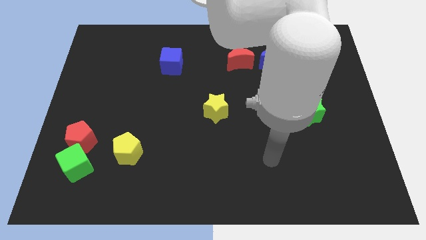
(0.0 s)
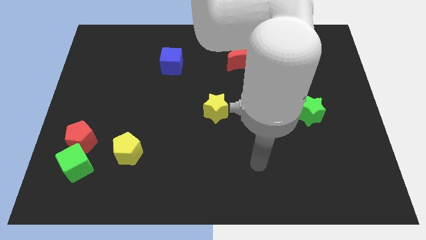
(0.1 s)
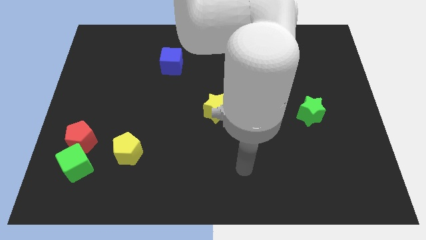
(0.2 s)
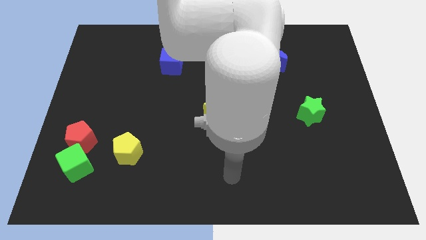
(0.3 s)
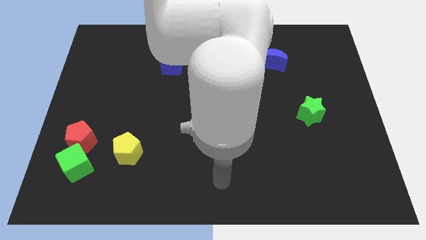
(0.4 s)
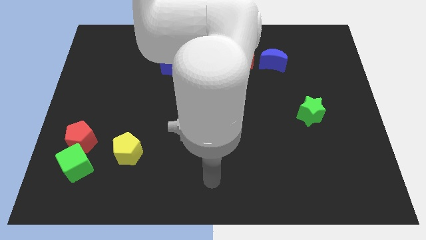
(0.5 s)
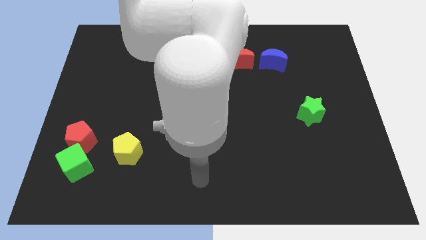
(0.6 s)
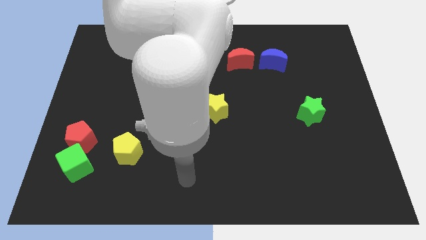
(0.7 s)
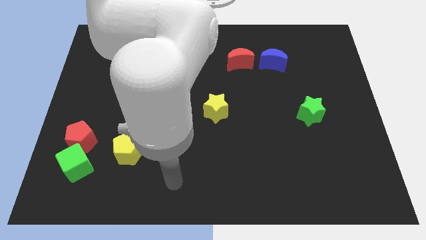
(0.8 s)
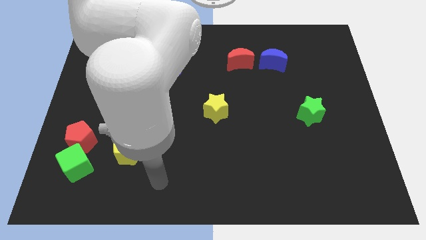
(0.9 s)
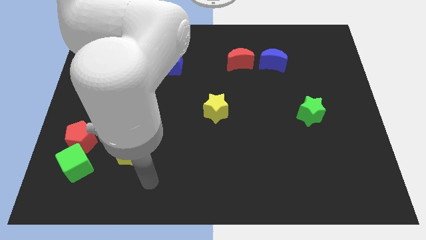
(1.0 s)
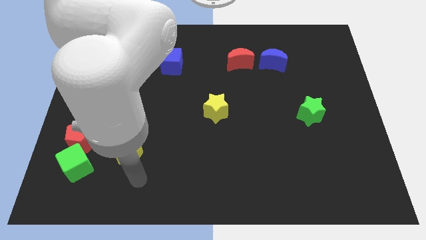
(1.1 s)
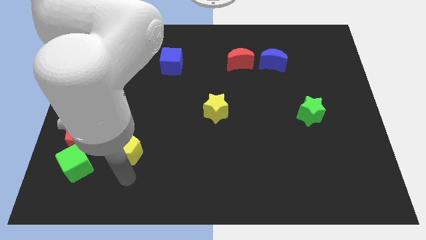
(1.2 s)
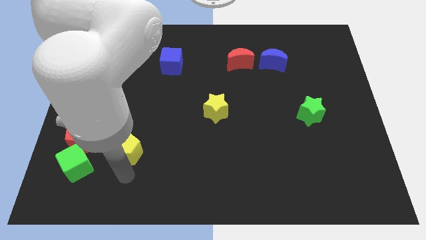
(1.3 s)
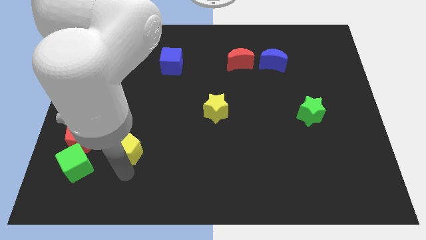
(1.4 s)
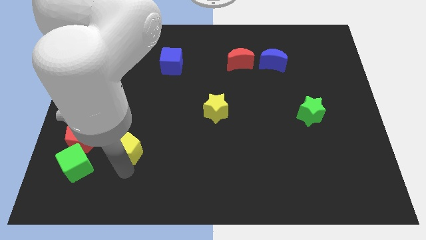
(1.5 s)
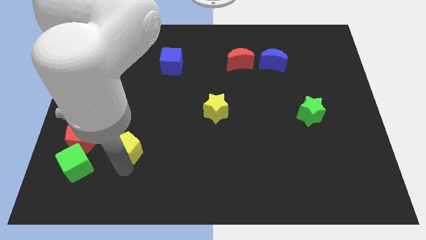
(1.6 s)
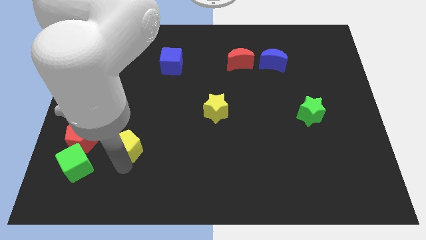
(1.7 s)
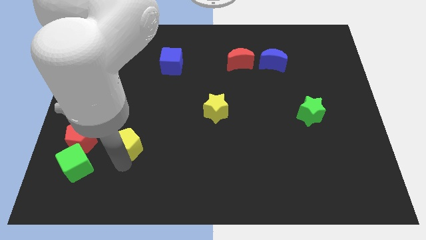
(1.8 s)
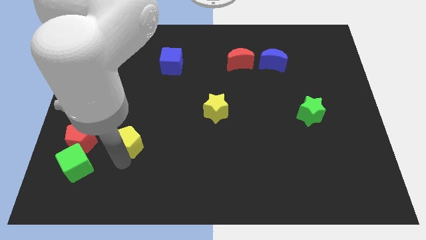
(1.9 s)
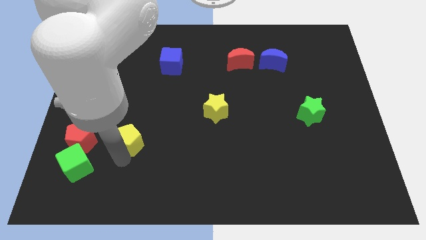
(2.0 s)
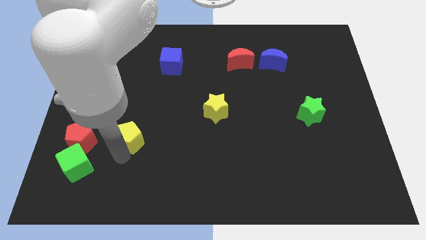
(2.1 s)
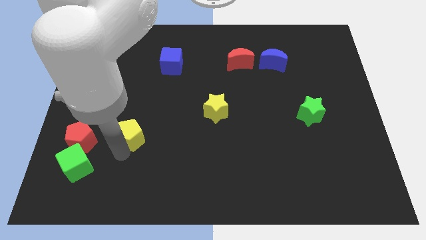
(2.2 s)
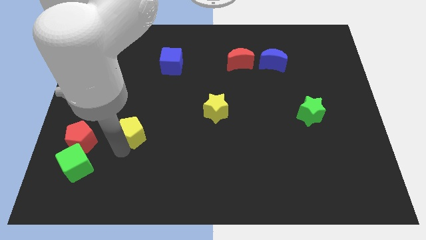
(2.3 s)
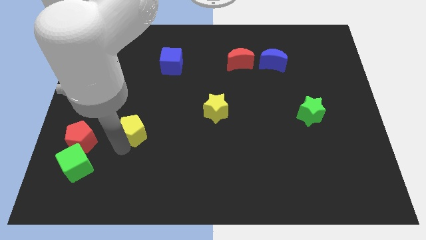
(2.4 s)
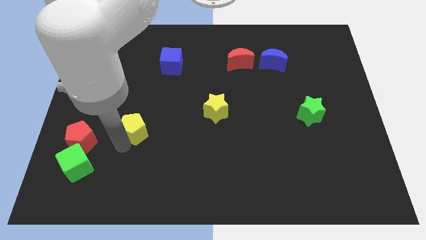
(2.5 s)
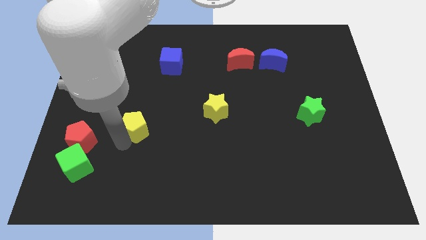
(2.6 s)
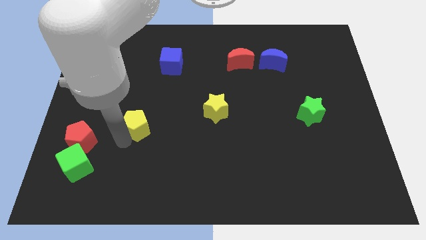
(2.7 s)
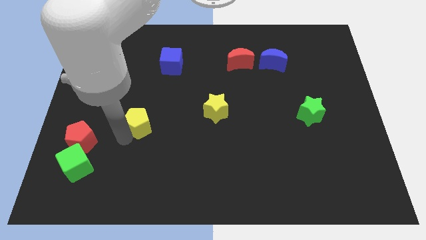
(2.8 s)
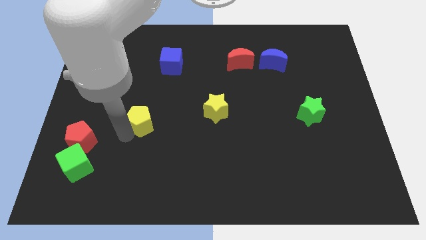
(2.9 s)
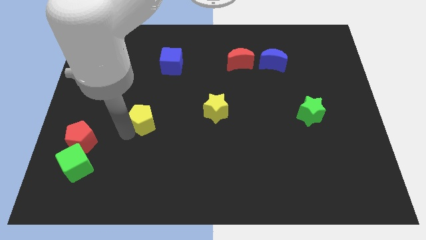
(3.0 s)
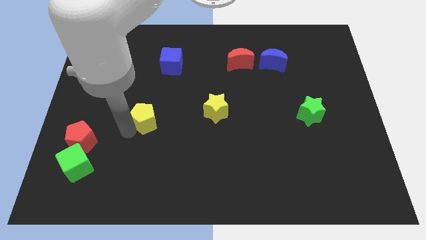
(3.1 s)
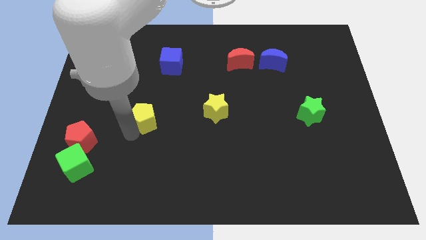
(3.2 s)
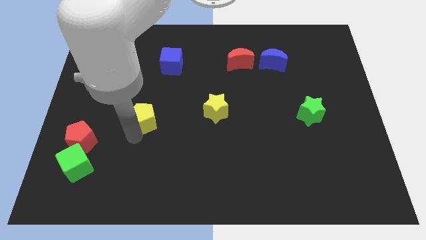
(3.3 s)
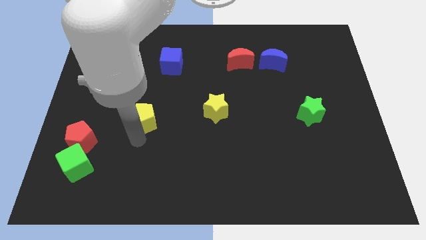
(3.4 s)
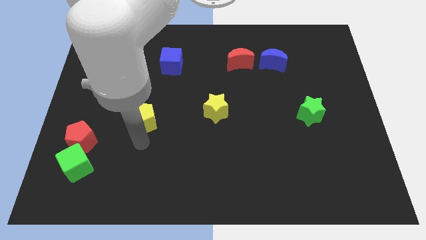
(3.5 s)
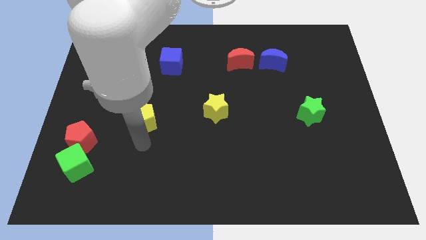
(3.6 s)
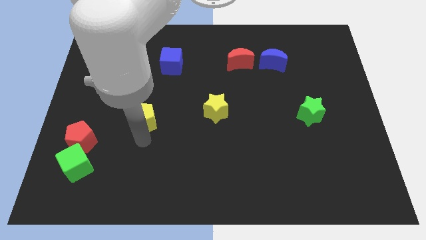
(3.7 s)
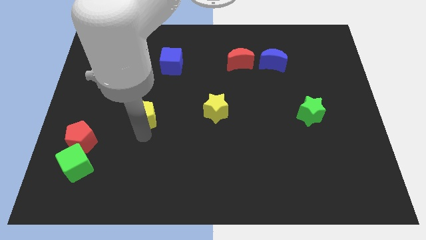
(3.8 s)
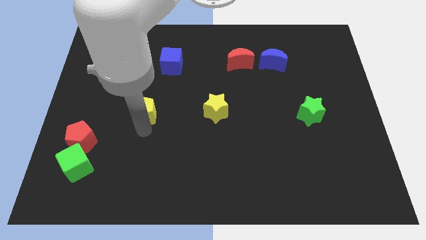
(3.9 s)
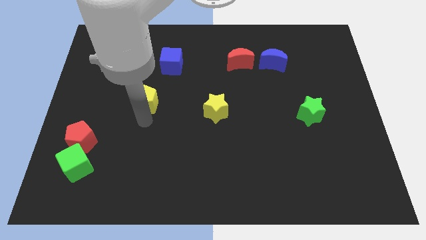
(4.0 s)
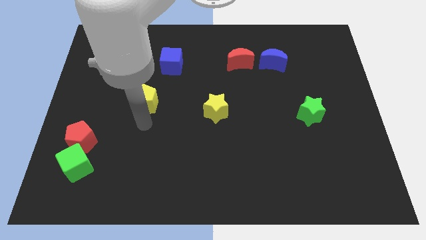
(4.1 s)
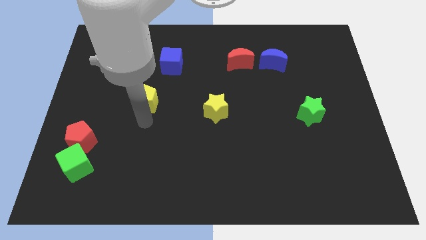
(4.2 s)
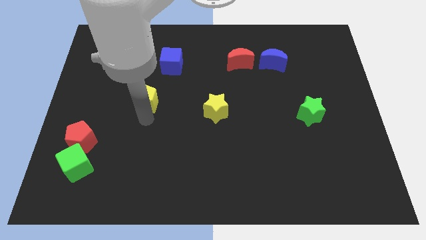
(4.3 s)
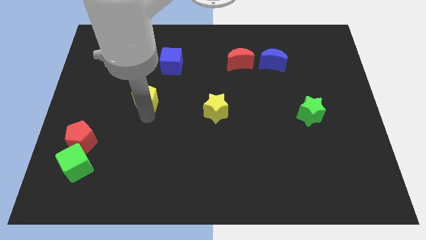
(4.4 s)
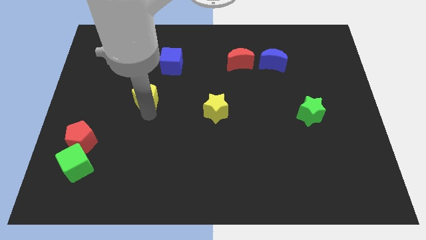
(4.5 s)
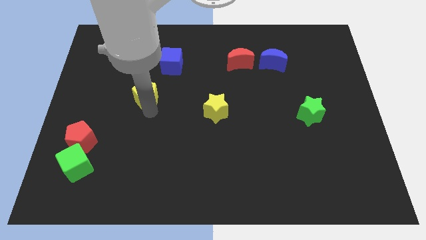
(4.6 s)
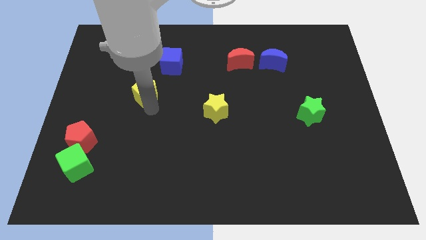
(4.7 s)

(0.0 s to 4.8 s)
move the yellow pentagon to the bottom left of the blue cube

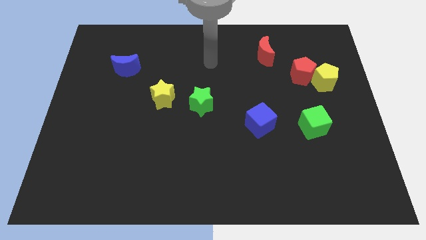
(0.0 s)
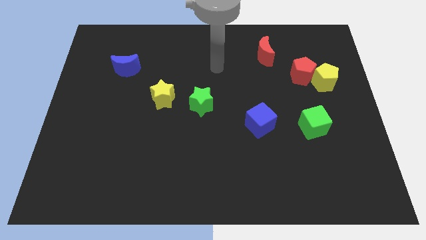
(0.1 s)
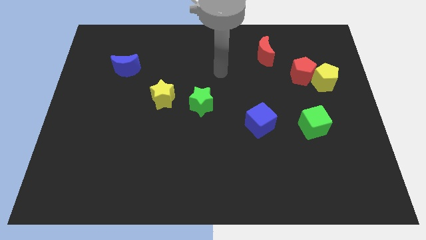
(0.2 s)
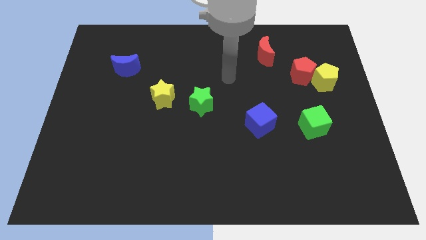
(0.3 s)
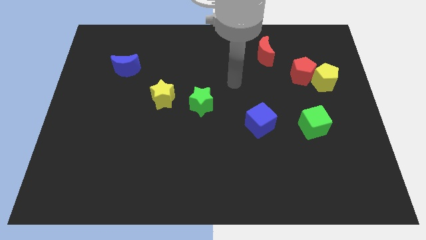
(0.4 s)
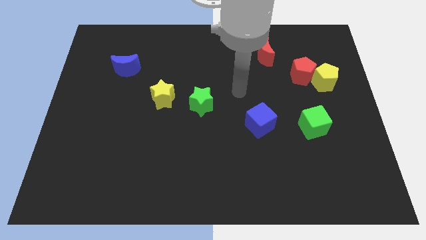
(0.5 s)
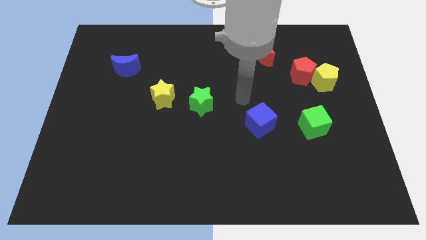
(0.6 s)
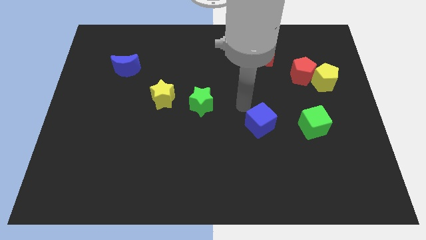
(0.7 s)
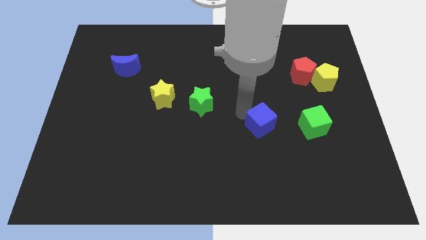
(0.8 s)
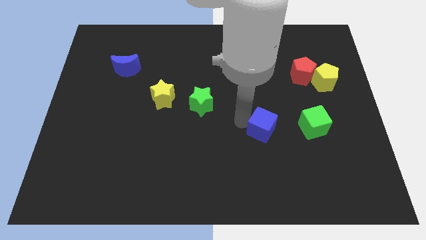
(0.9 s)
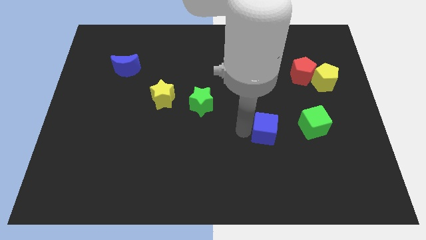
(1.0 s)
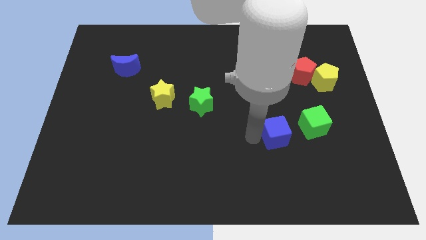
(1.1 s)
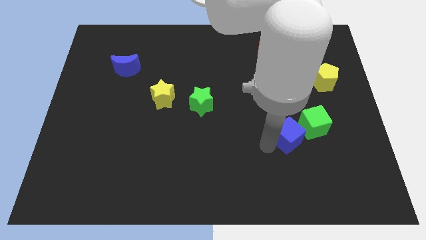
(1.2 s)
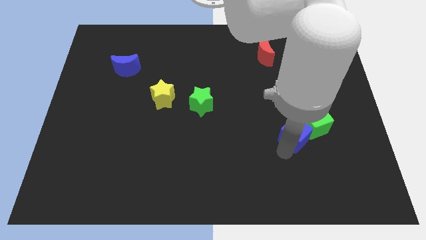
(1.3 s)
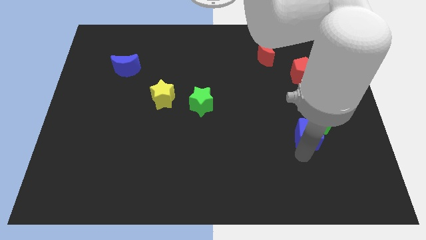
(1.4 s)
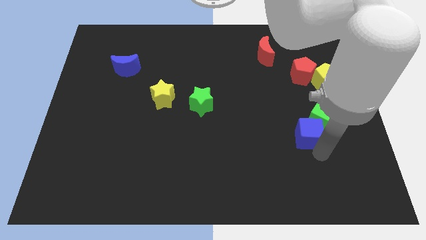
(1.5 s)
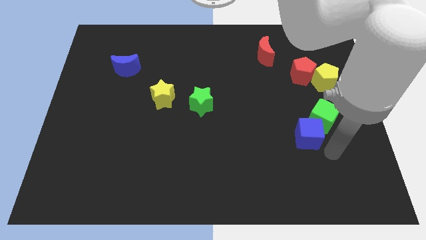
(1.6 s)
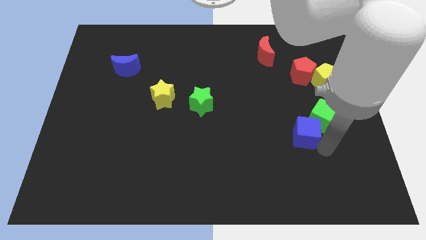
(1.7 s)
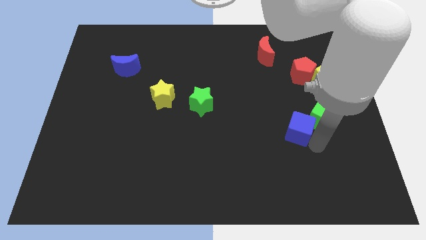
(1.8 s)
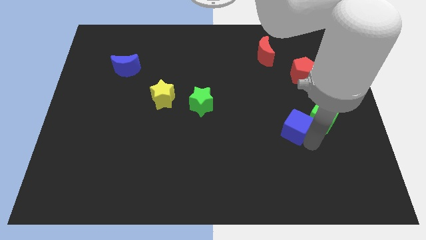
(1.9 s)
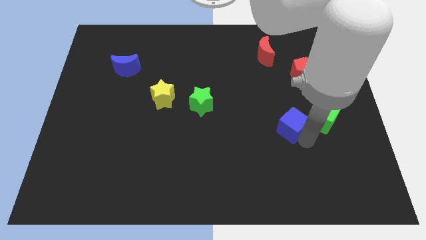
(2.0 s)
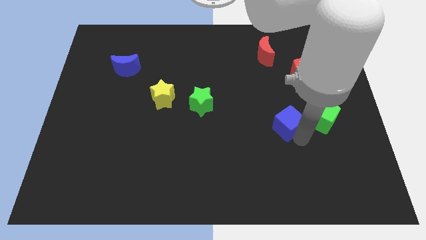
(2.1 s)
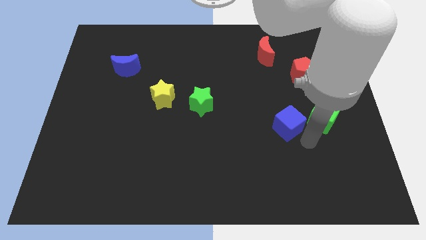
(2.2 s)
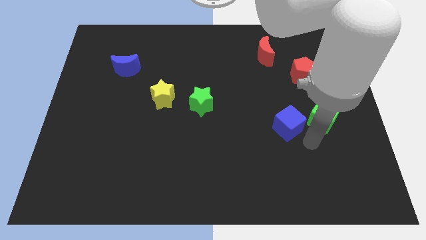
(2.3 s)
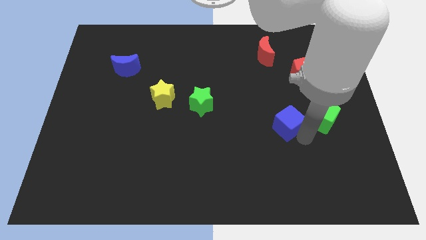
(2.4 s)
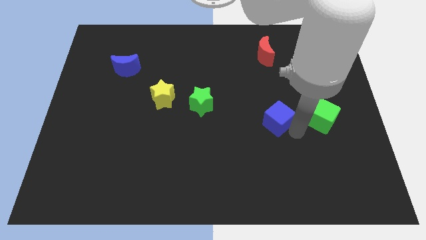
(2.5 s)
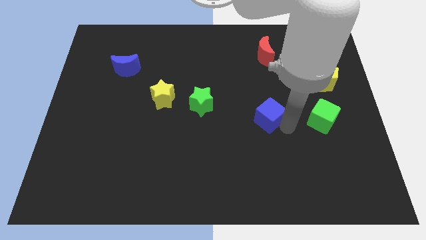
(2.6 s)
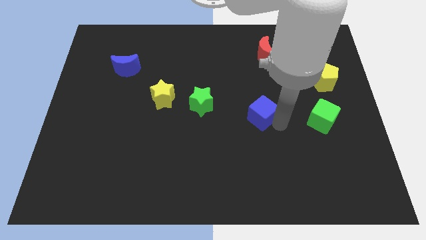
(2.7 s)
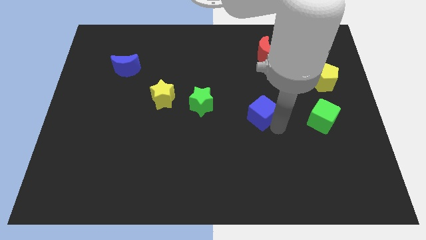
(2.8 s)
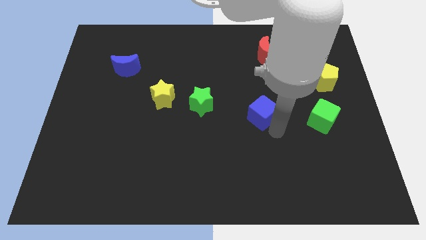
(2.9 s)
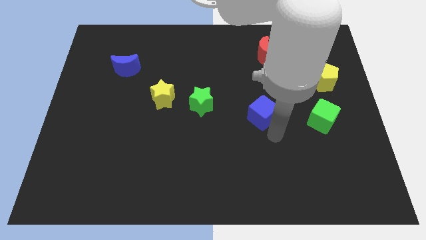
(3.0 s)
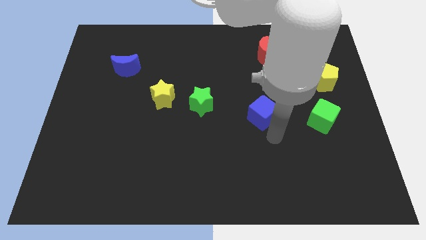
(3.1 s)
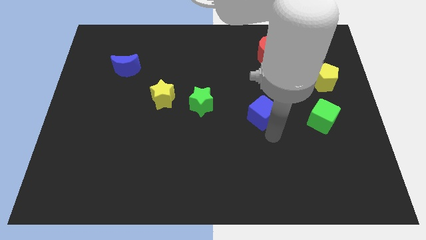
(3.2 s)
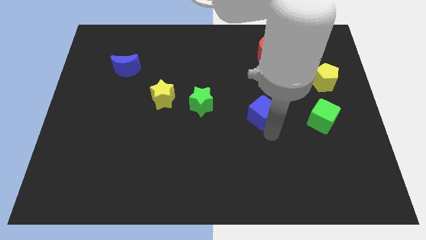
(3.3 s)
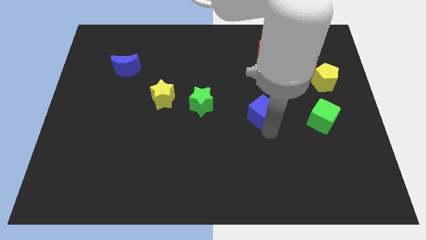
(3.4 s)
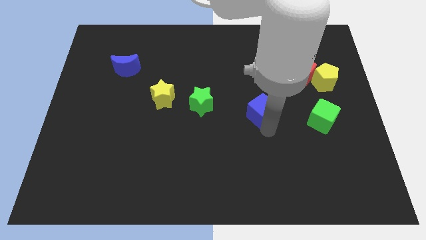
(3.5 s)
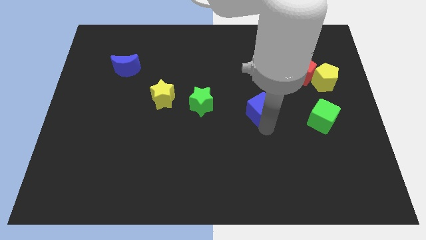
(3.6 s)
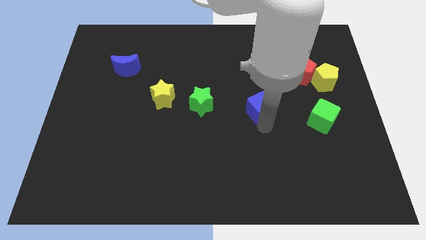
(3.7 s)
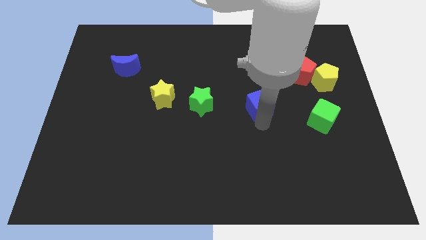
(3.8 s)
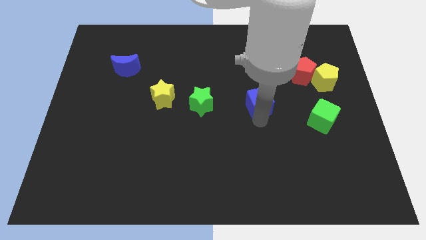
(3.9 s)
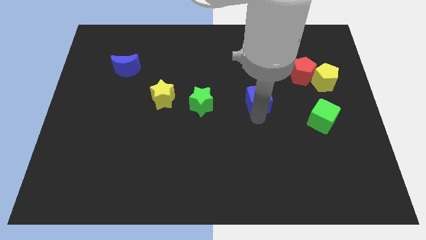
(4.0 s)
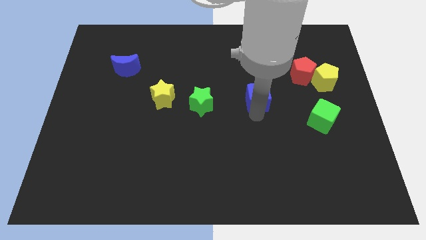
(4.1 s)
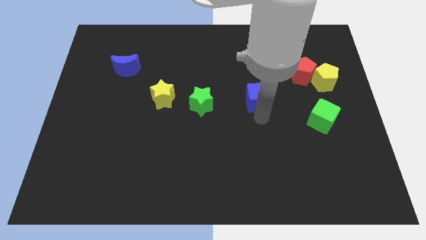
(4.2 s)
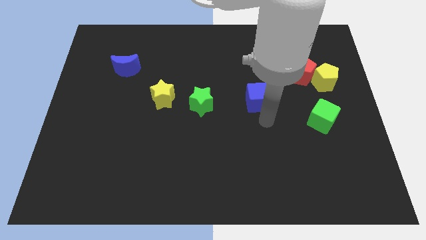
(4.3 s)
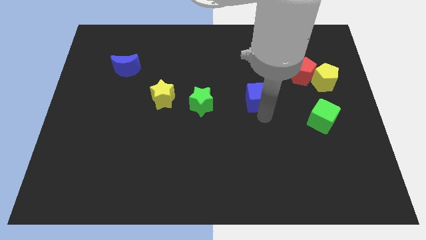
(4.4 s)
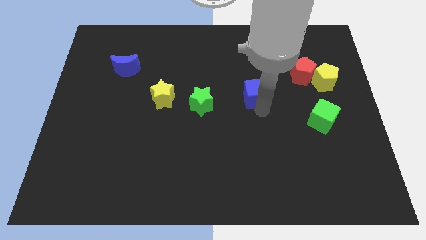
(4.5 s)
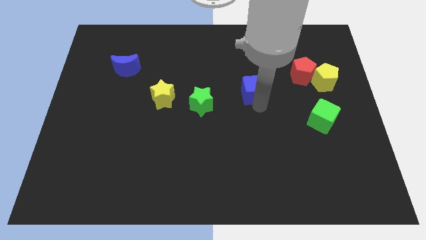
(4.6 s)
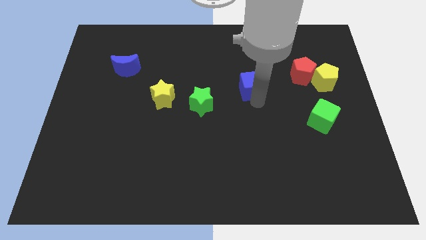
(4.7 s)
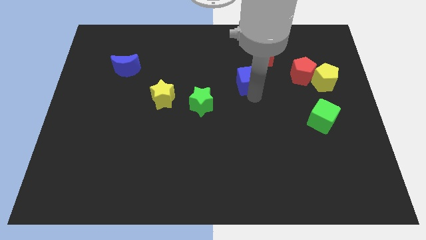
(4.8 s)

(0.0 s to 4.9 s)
push the blue cube diagonally down and to the left of the red moon
